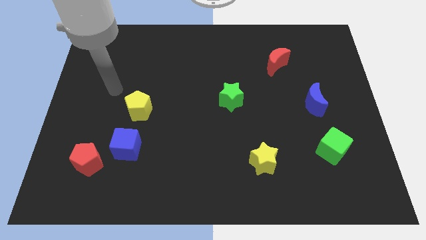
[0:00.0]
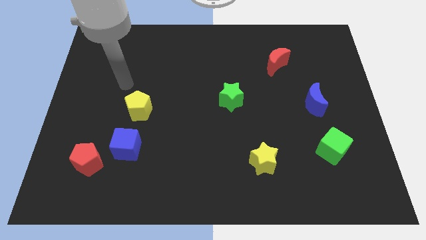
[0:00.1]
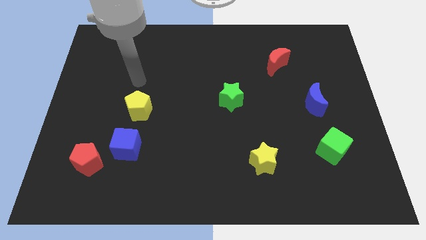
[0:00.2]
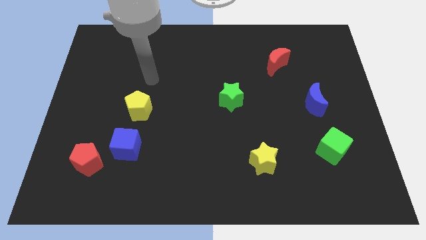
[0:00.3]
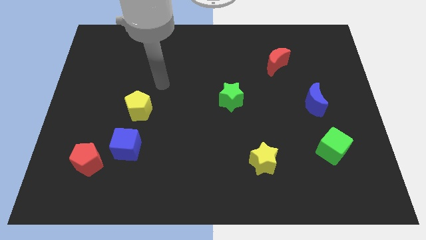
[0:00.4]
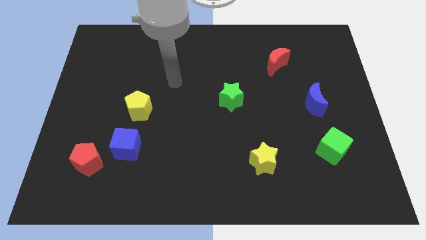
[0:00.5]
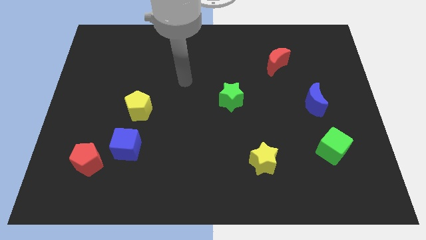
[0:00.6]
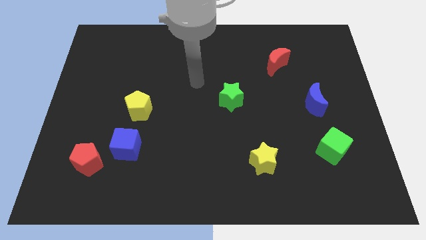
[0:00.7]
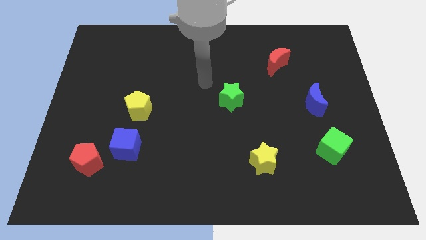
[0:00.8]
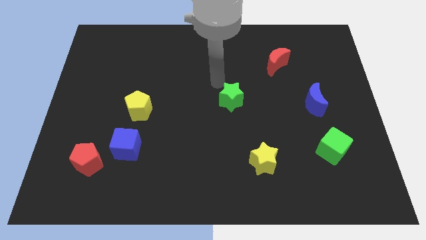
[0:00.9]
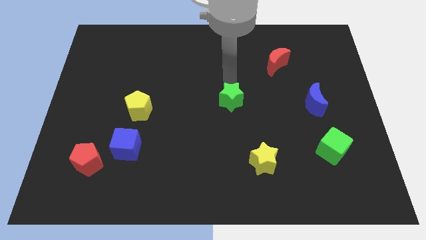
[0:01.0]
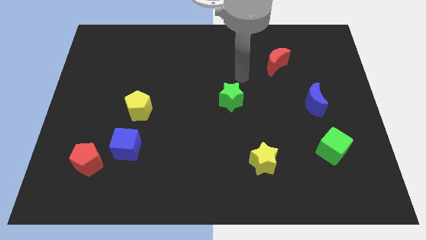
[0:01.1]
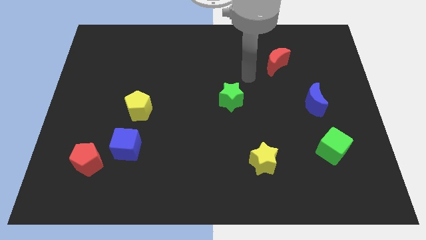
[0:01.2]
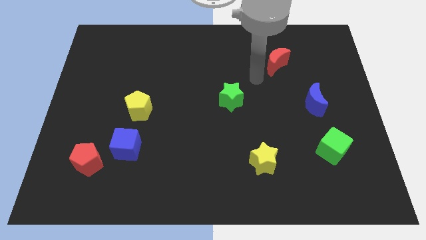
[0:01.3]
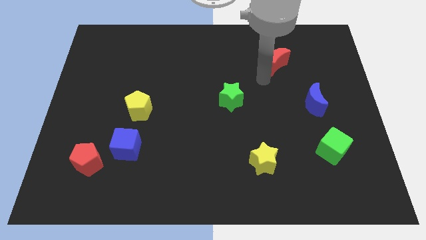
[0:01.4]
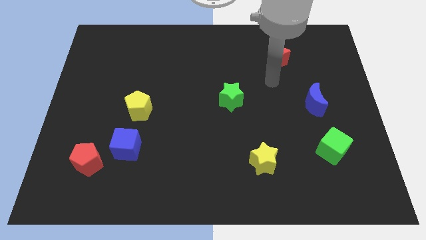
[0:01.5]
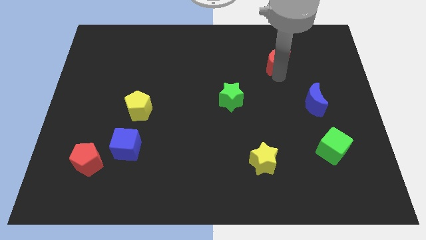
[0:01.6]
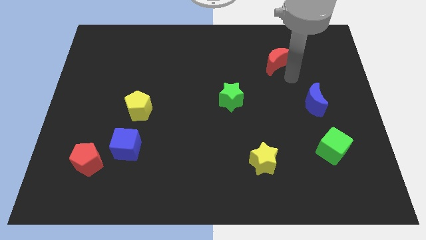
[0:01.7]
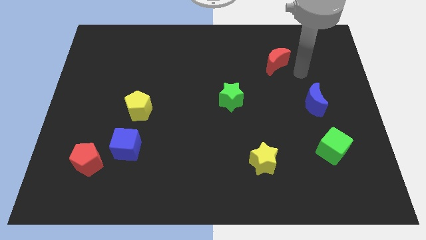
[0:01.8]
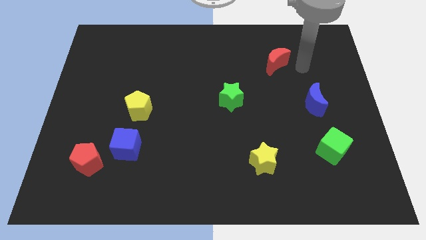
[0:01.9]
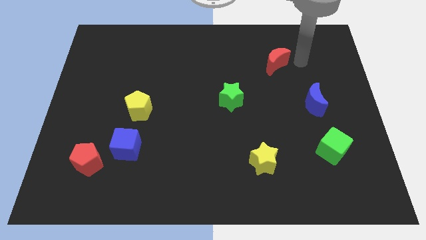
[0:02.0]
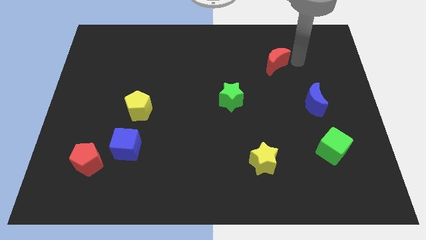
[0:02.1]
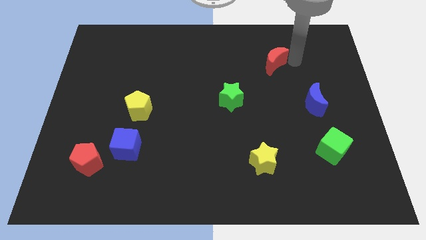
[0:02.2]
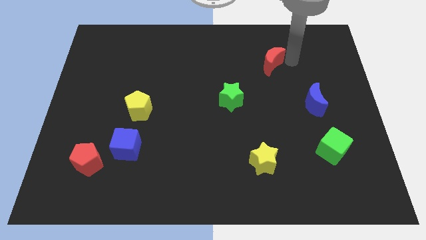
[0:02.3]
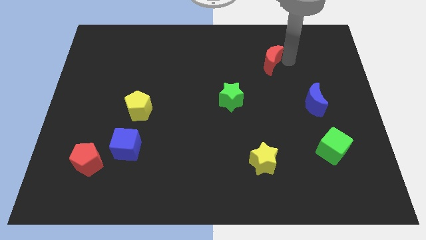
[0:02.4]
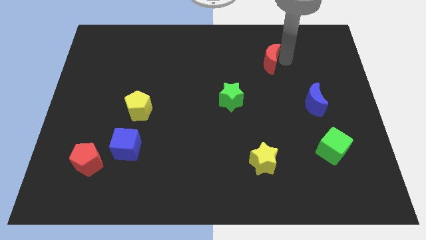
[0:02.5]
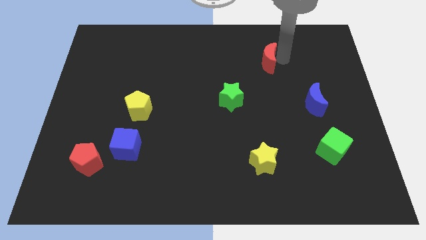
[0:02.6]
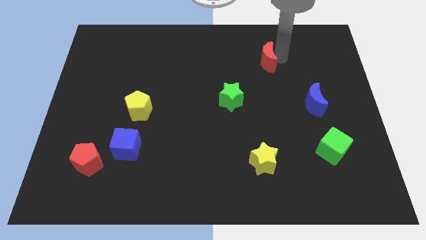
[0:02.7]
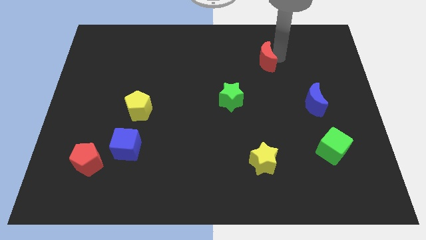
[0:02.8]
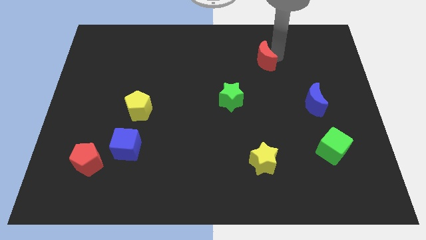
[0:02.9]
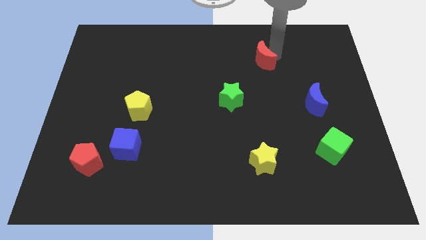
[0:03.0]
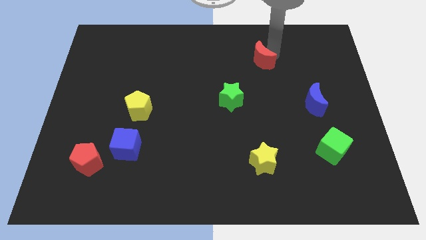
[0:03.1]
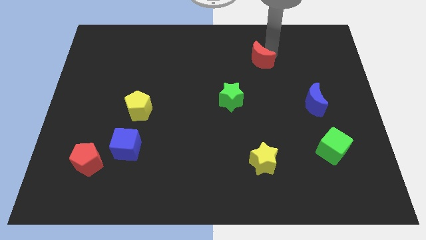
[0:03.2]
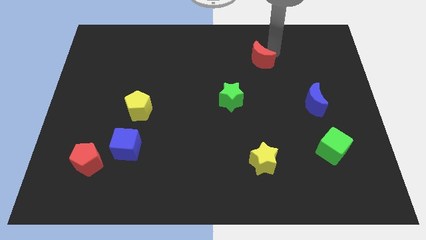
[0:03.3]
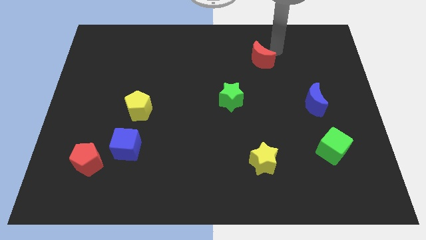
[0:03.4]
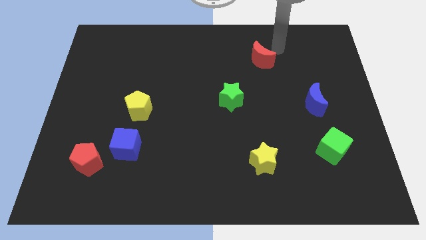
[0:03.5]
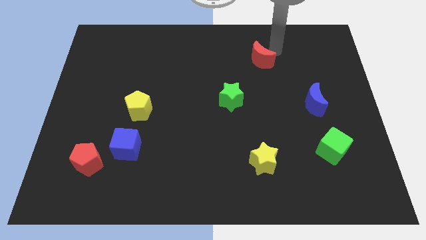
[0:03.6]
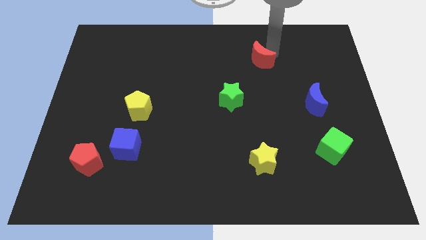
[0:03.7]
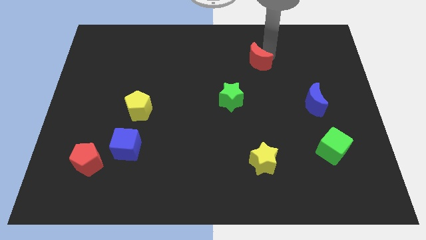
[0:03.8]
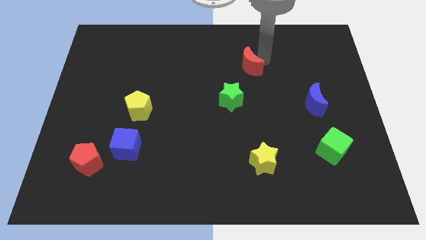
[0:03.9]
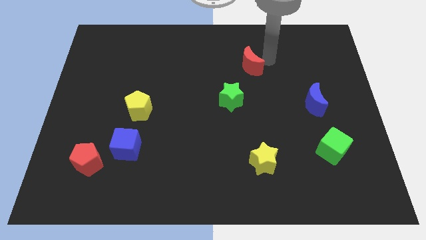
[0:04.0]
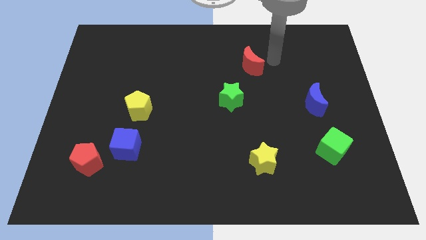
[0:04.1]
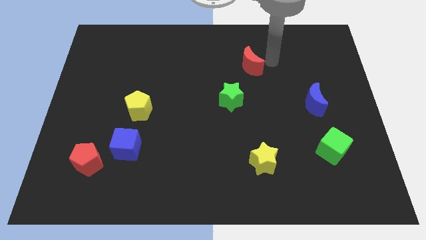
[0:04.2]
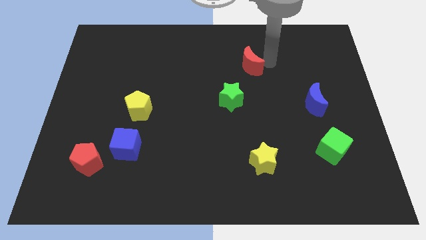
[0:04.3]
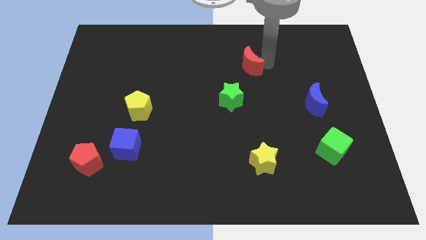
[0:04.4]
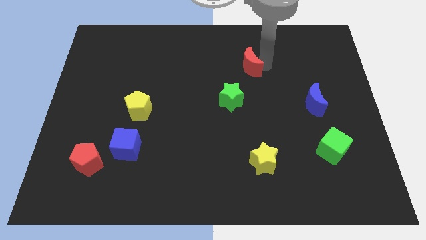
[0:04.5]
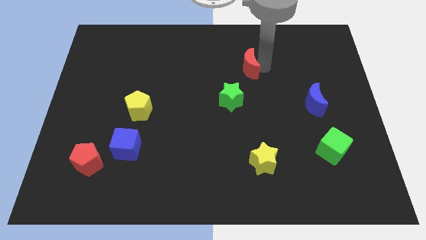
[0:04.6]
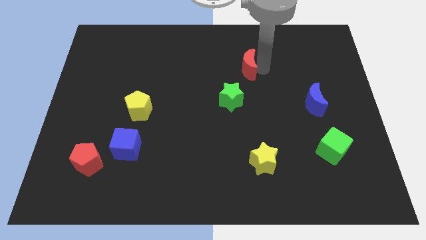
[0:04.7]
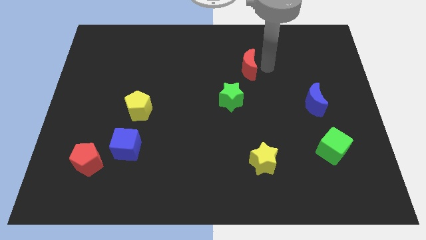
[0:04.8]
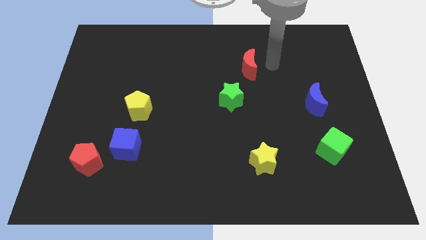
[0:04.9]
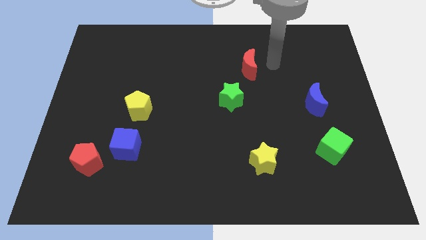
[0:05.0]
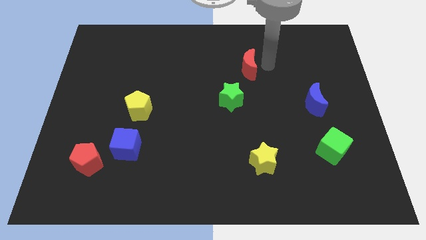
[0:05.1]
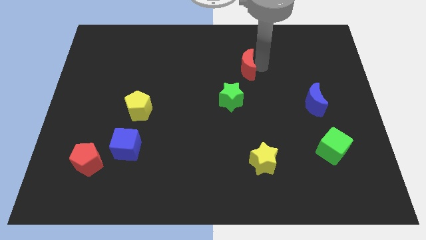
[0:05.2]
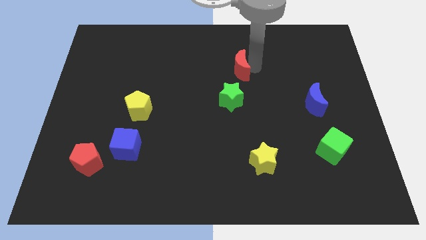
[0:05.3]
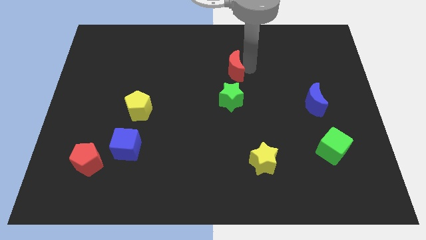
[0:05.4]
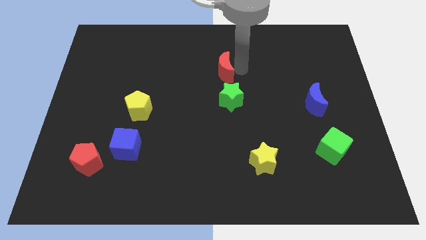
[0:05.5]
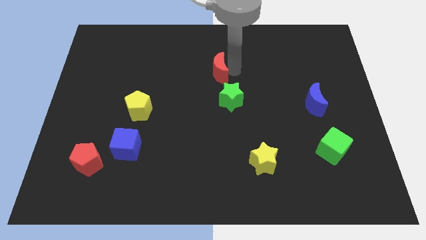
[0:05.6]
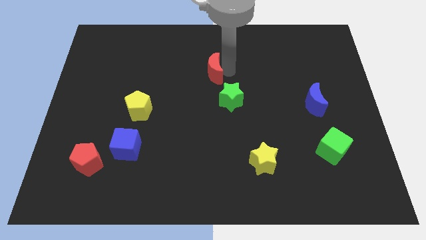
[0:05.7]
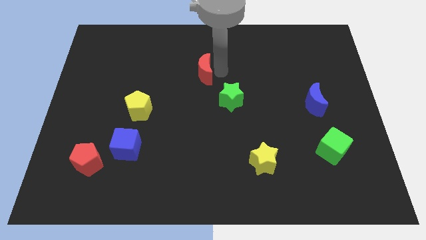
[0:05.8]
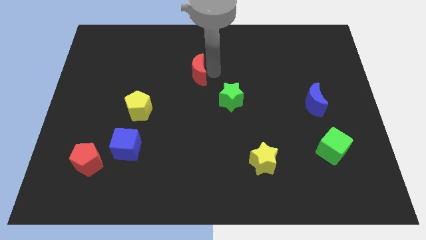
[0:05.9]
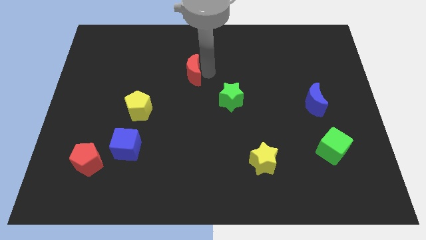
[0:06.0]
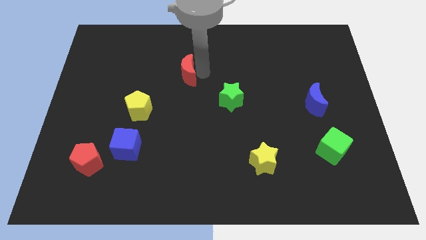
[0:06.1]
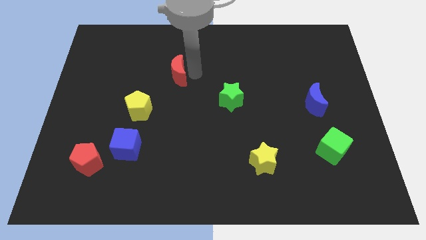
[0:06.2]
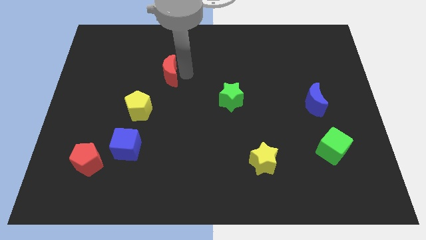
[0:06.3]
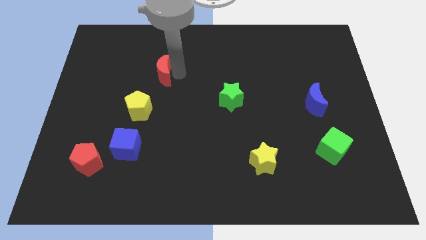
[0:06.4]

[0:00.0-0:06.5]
slide the red moon above the yellow pentagon

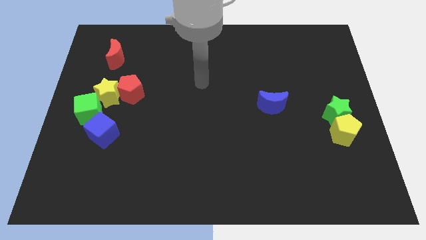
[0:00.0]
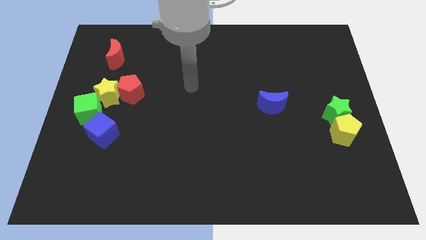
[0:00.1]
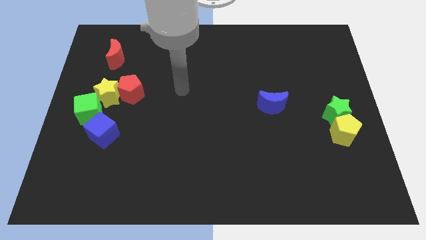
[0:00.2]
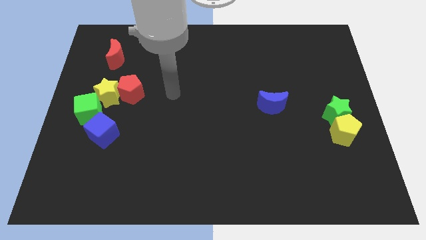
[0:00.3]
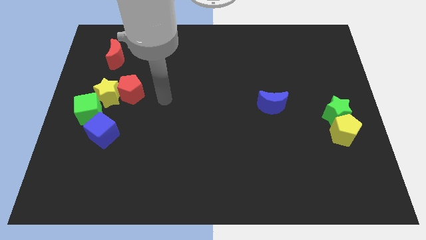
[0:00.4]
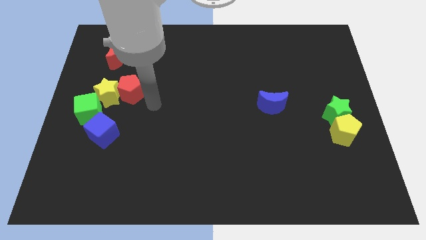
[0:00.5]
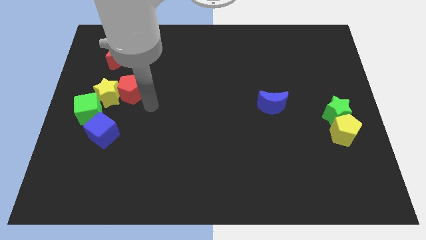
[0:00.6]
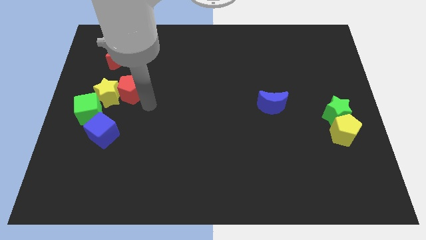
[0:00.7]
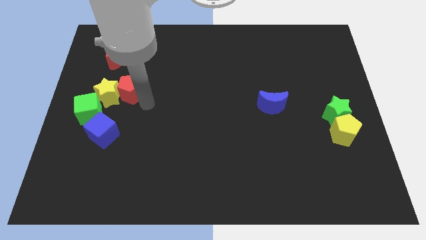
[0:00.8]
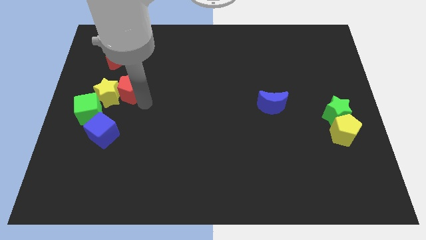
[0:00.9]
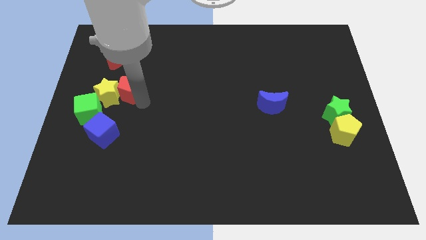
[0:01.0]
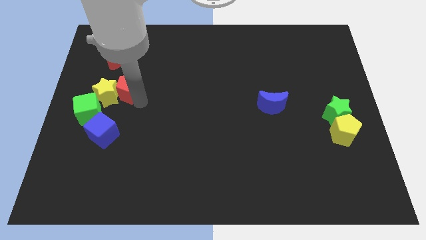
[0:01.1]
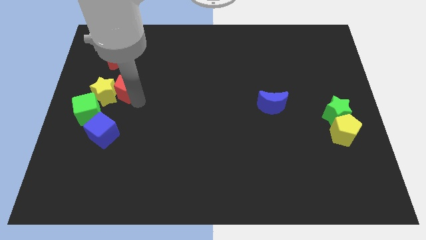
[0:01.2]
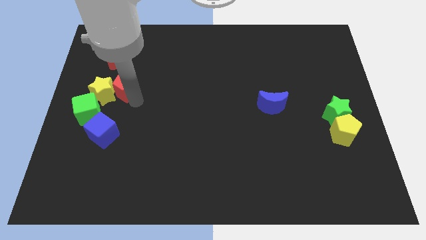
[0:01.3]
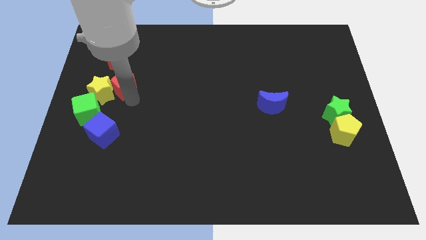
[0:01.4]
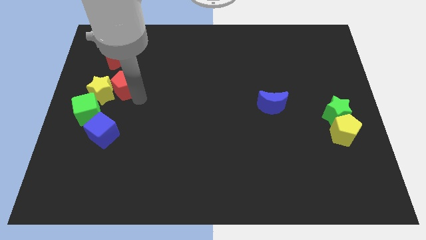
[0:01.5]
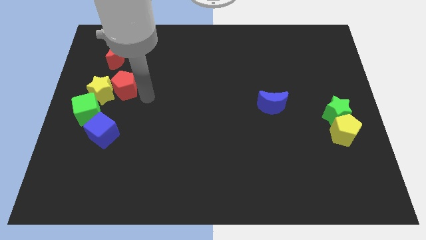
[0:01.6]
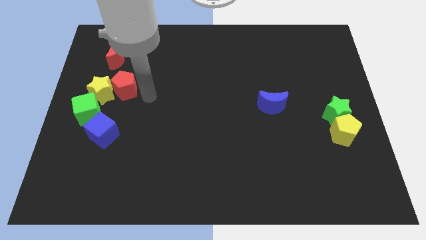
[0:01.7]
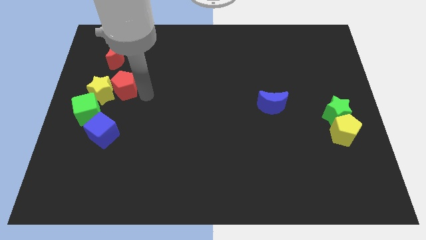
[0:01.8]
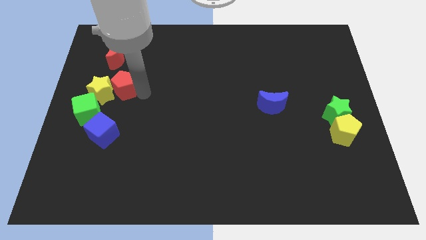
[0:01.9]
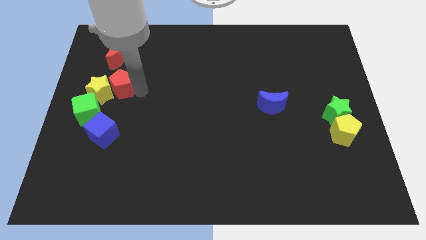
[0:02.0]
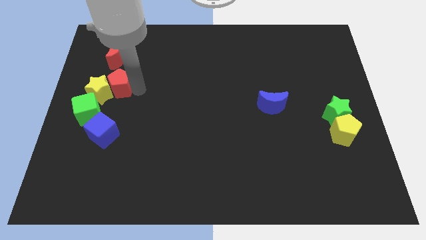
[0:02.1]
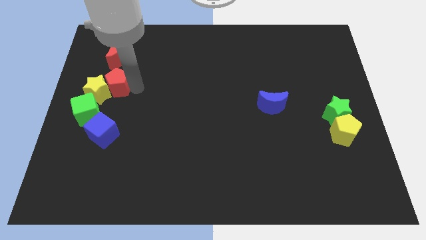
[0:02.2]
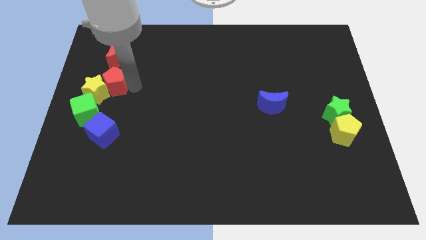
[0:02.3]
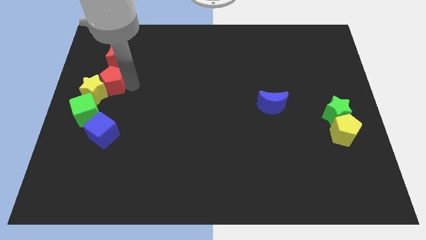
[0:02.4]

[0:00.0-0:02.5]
put the red pentagon to the top of the green cube
